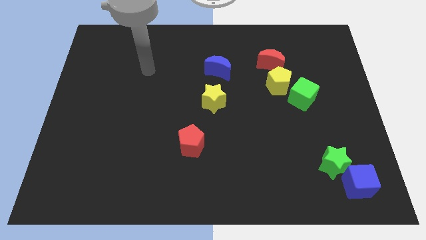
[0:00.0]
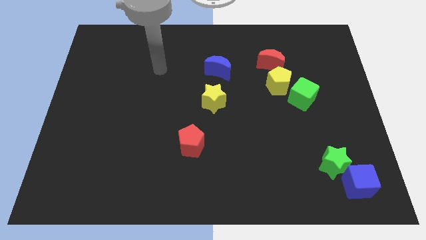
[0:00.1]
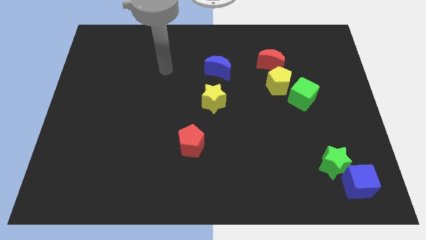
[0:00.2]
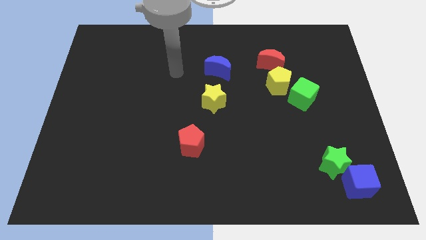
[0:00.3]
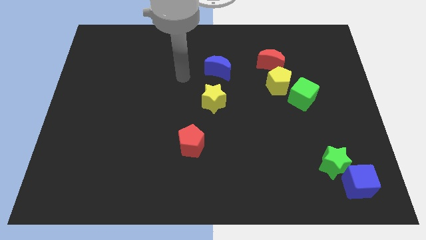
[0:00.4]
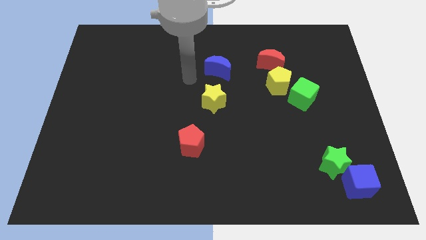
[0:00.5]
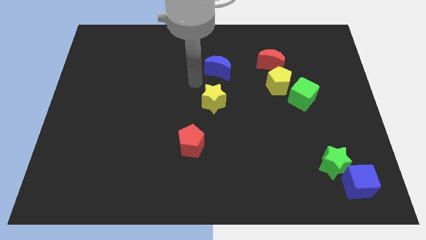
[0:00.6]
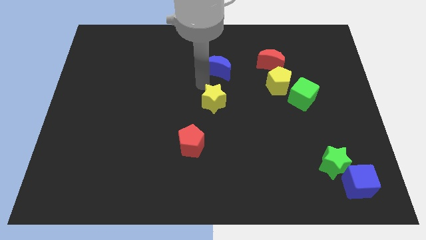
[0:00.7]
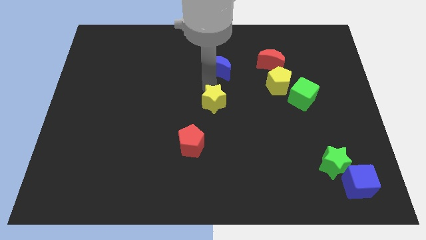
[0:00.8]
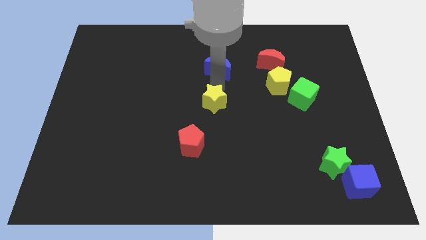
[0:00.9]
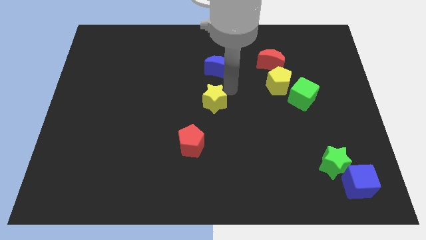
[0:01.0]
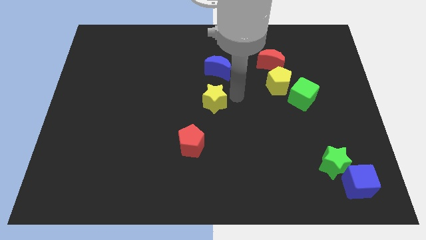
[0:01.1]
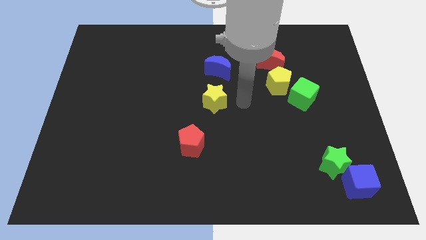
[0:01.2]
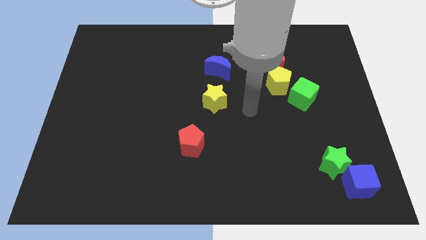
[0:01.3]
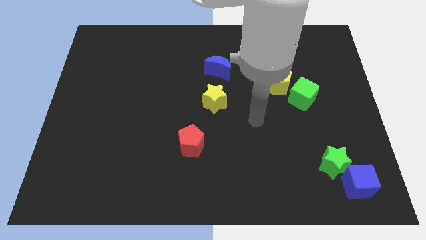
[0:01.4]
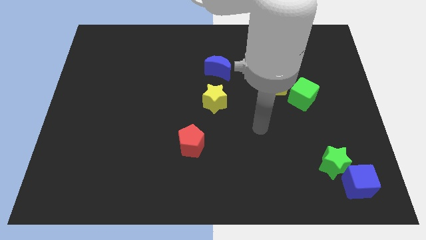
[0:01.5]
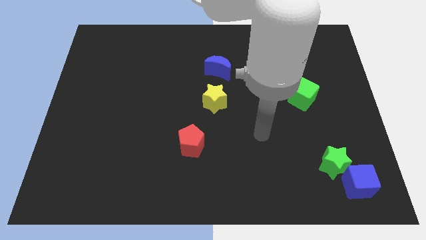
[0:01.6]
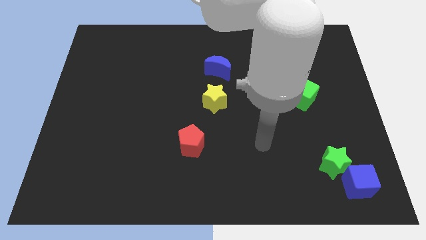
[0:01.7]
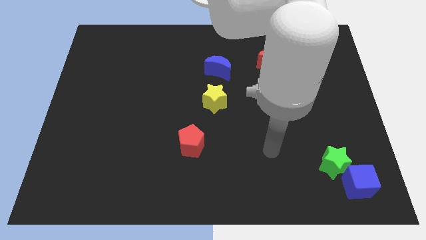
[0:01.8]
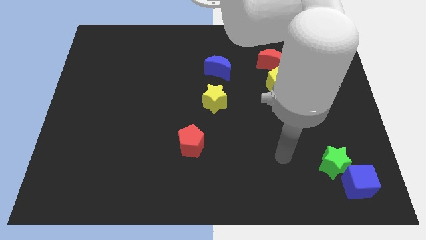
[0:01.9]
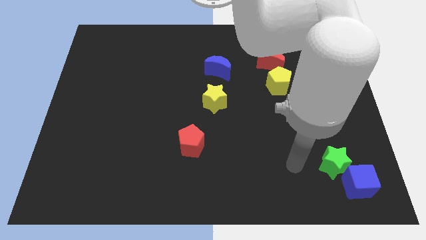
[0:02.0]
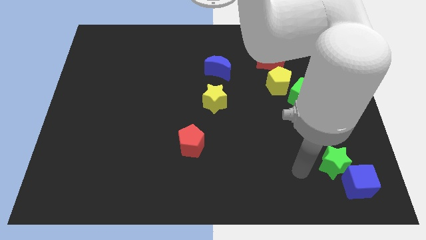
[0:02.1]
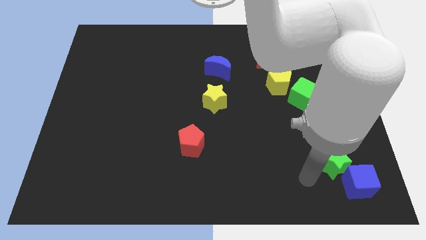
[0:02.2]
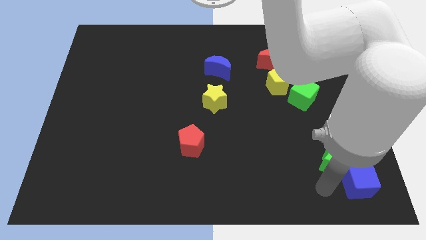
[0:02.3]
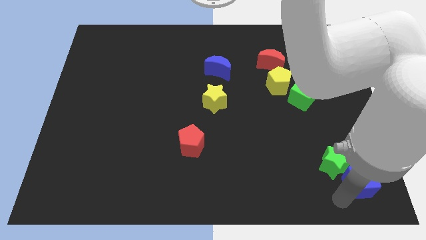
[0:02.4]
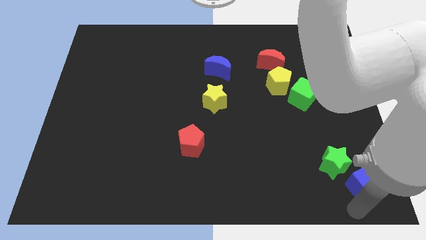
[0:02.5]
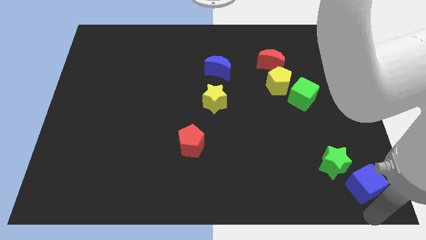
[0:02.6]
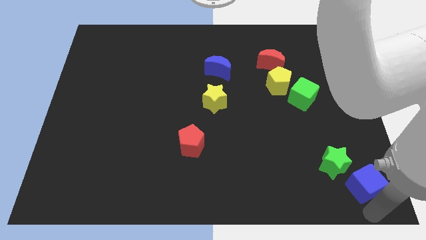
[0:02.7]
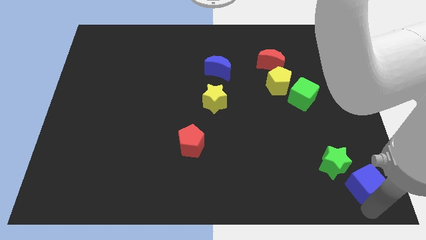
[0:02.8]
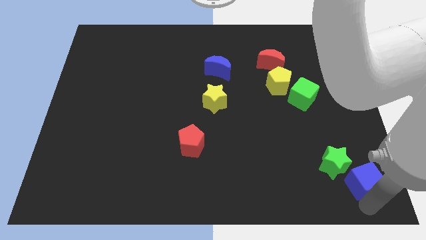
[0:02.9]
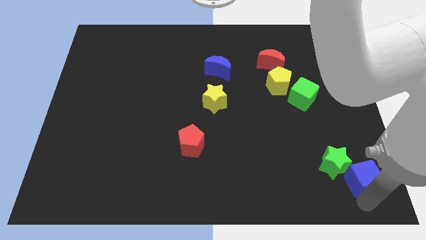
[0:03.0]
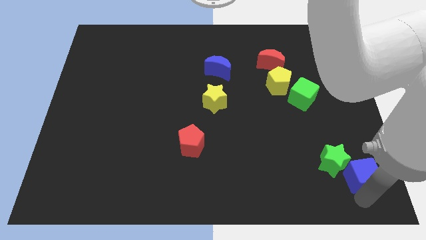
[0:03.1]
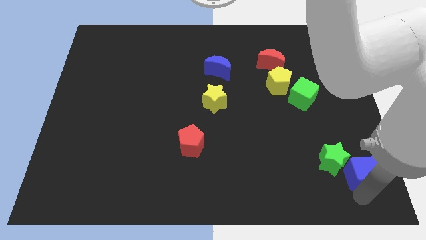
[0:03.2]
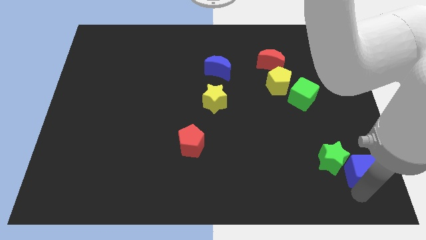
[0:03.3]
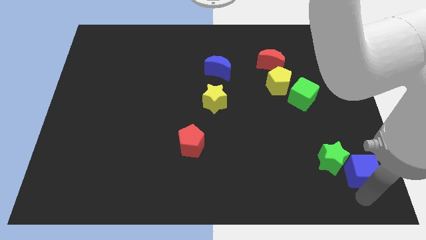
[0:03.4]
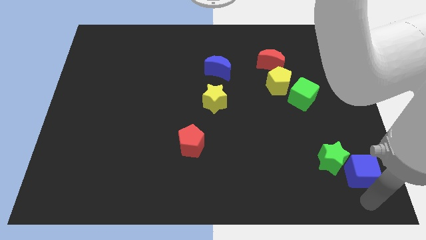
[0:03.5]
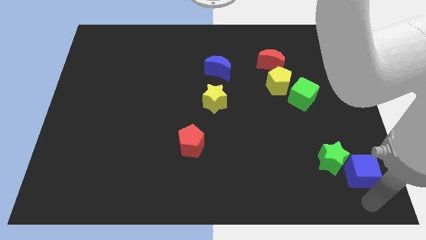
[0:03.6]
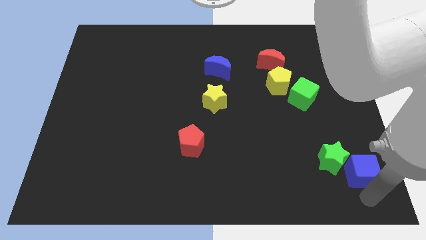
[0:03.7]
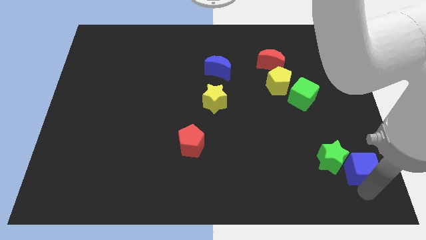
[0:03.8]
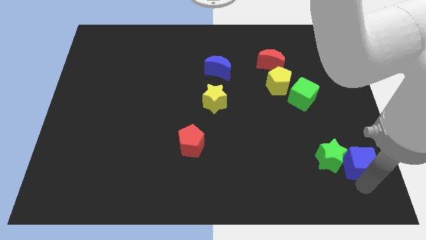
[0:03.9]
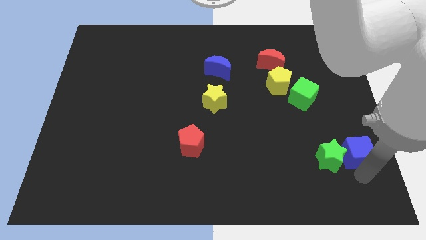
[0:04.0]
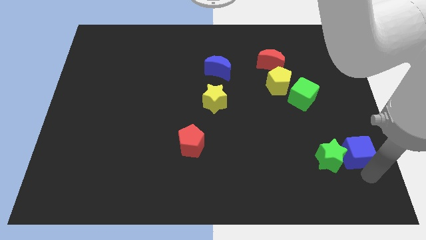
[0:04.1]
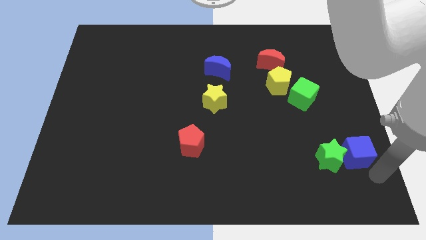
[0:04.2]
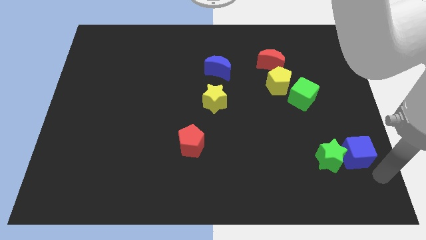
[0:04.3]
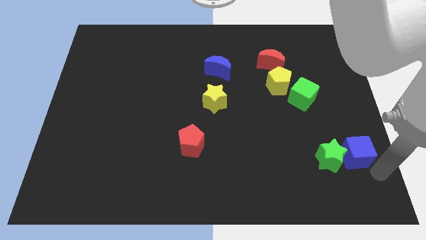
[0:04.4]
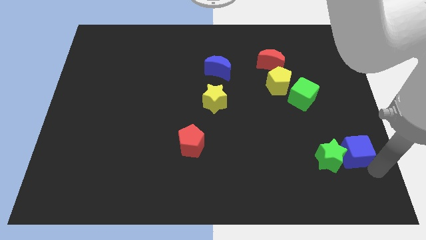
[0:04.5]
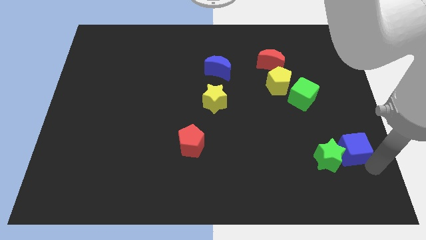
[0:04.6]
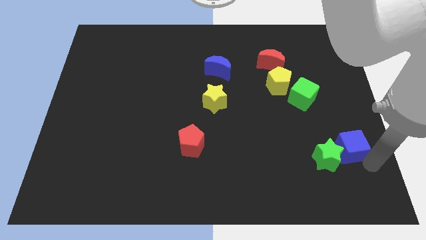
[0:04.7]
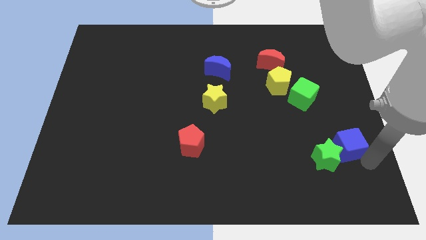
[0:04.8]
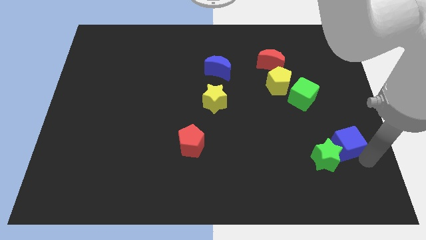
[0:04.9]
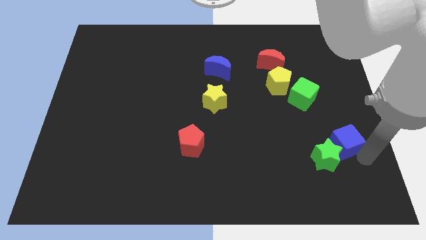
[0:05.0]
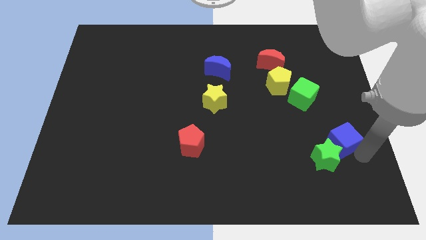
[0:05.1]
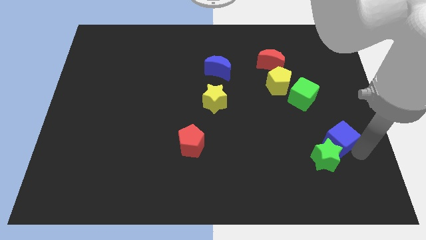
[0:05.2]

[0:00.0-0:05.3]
move the blue cube diagonally up and left somewhat

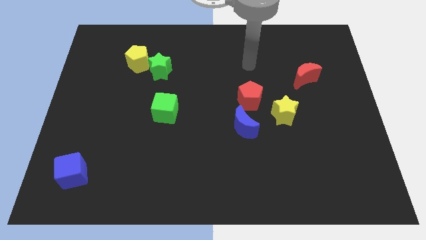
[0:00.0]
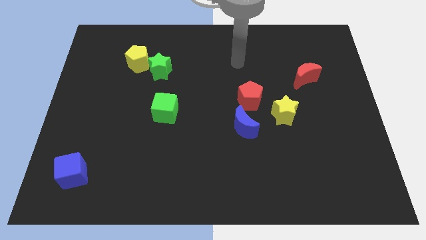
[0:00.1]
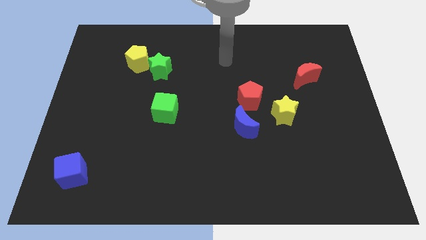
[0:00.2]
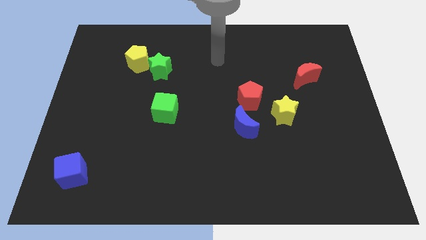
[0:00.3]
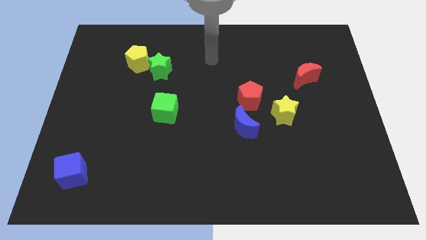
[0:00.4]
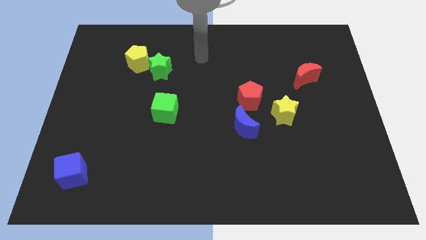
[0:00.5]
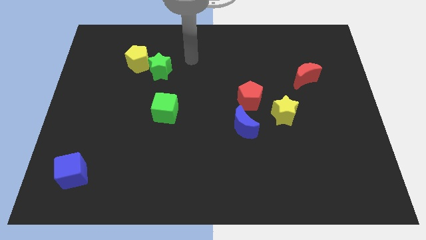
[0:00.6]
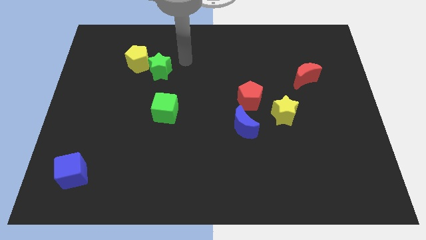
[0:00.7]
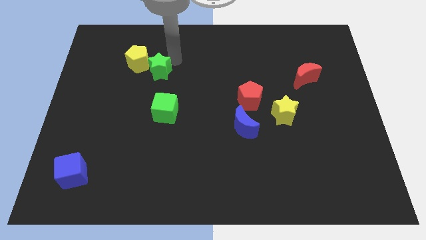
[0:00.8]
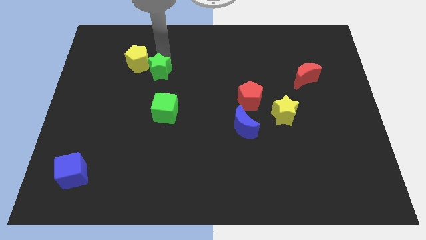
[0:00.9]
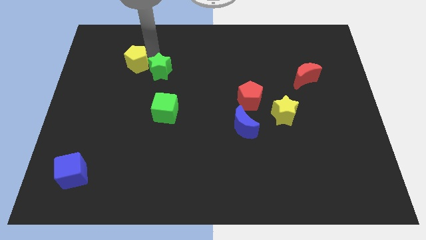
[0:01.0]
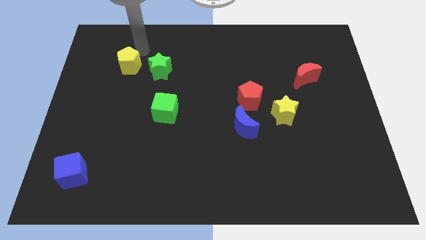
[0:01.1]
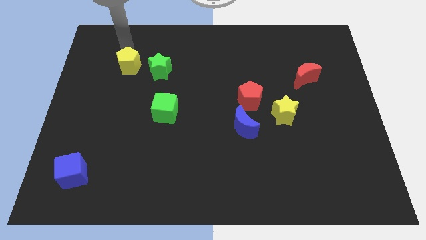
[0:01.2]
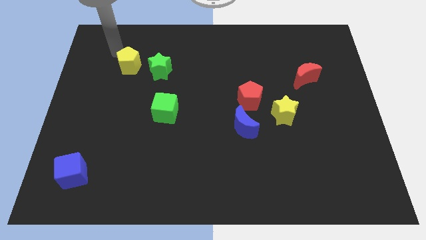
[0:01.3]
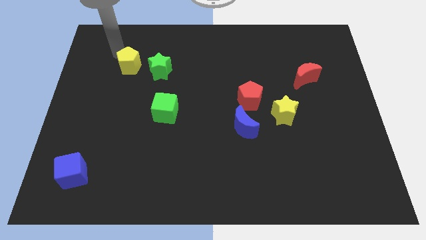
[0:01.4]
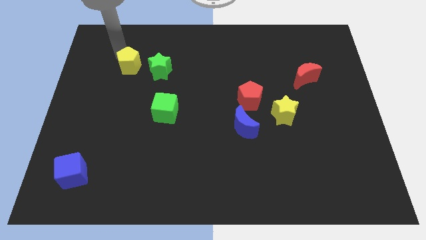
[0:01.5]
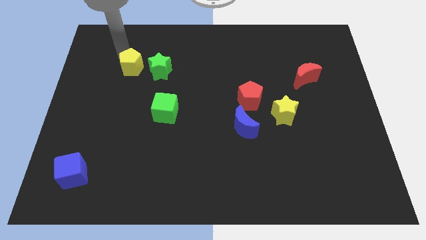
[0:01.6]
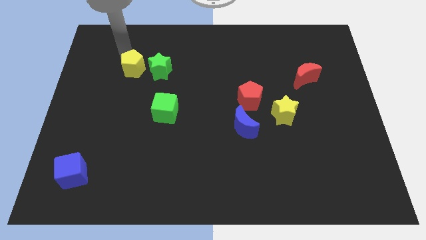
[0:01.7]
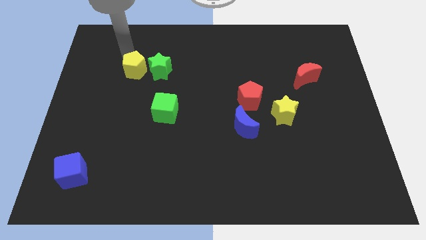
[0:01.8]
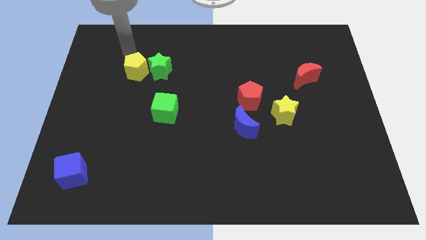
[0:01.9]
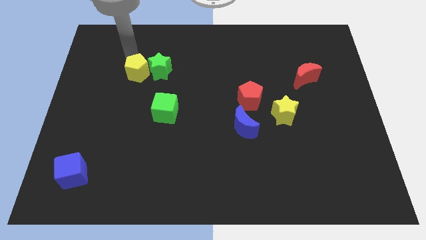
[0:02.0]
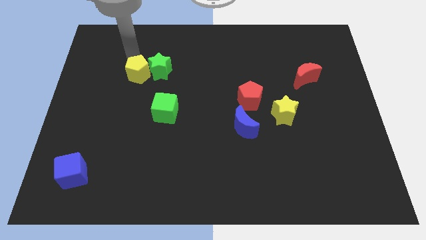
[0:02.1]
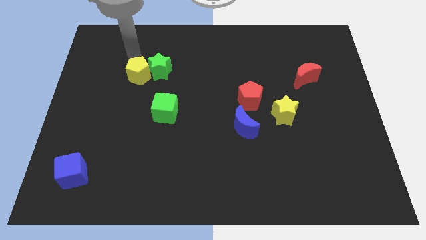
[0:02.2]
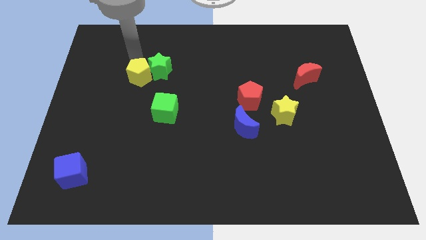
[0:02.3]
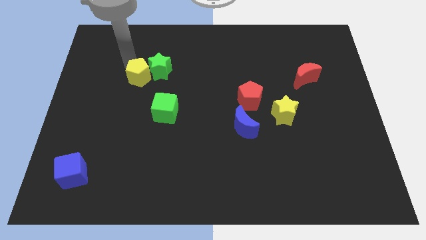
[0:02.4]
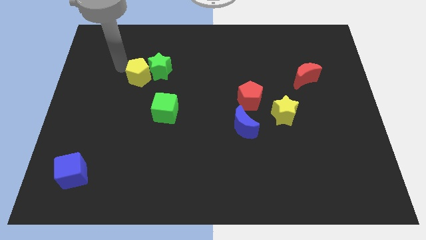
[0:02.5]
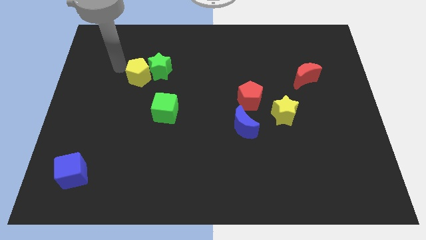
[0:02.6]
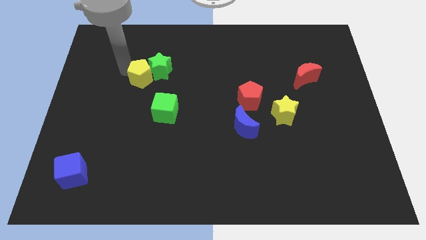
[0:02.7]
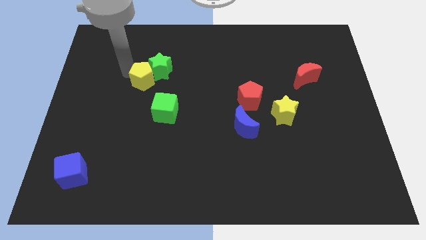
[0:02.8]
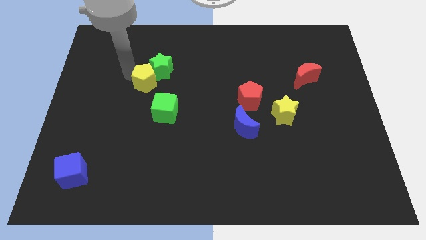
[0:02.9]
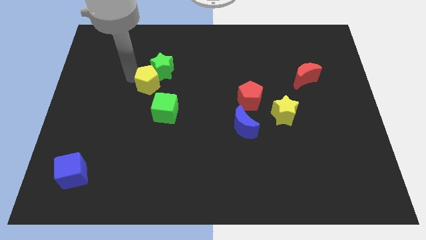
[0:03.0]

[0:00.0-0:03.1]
push the yellow pentagon somewhat diagonally down and right
